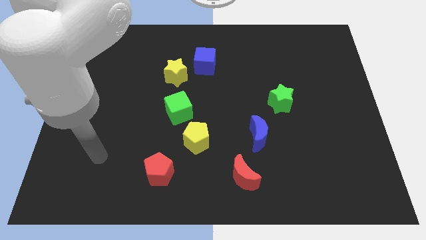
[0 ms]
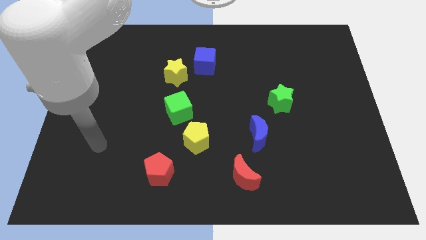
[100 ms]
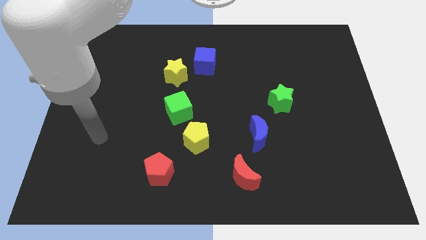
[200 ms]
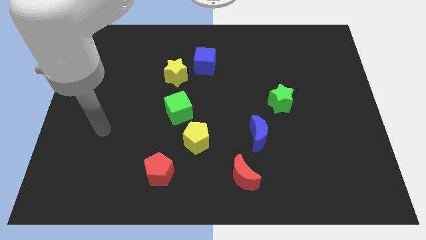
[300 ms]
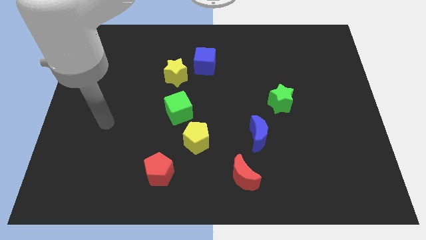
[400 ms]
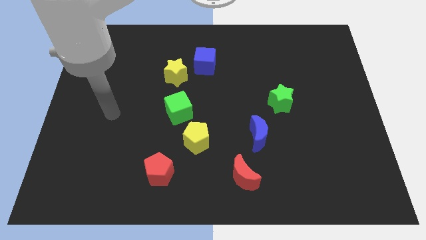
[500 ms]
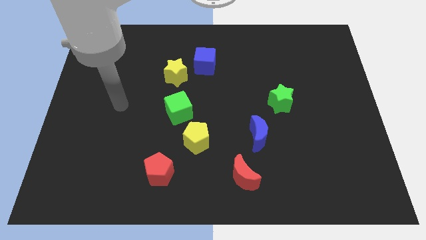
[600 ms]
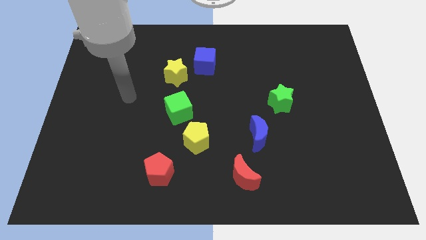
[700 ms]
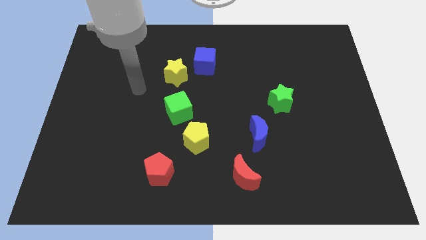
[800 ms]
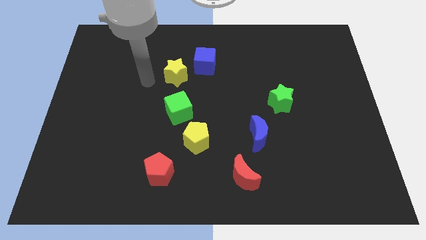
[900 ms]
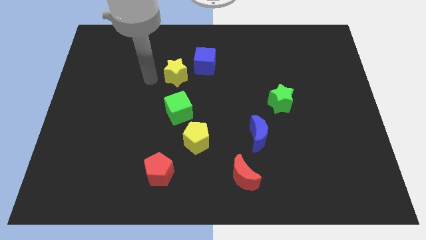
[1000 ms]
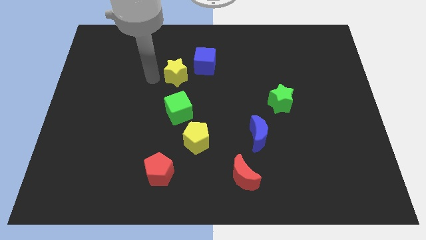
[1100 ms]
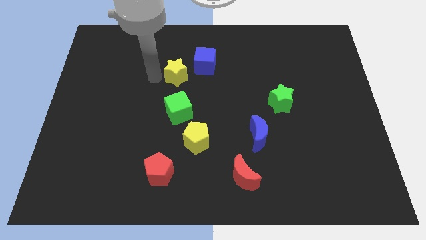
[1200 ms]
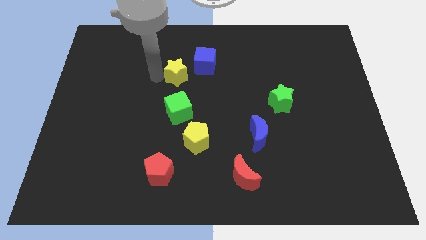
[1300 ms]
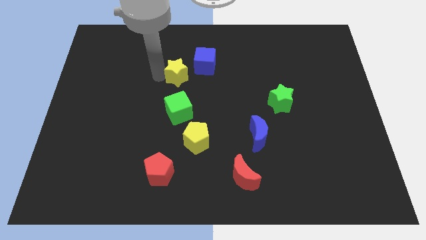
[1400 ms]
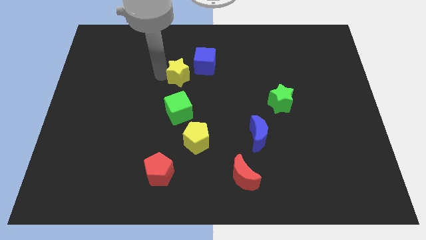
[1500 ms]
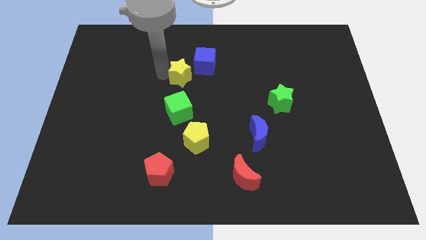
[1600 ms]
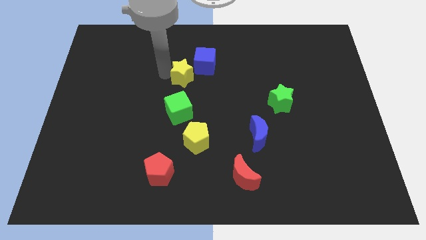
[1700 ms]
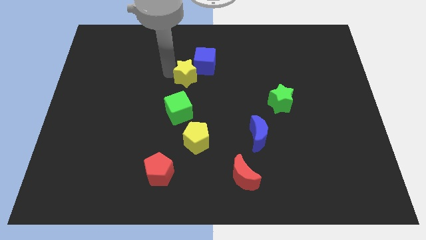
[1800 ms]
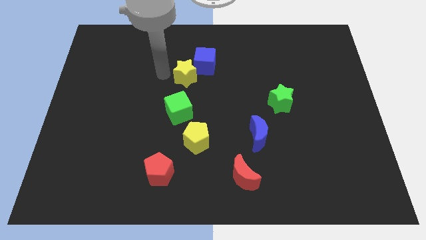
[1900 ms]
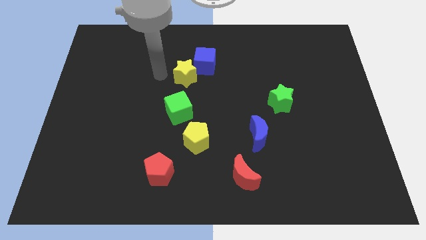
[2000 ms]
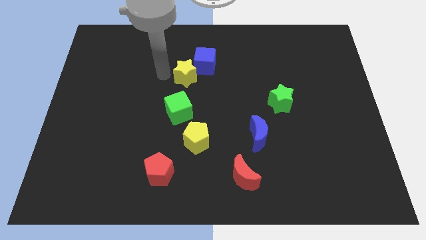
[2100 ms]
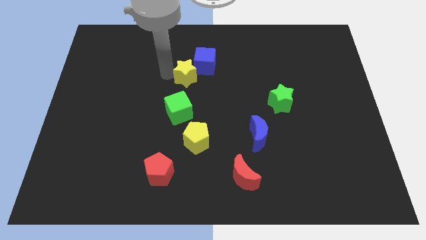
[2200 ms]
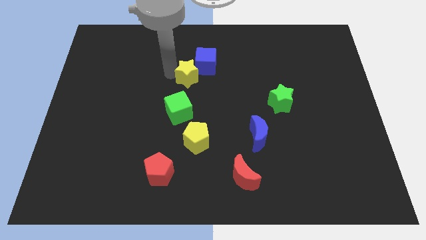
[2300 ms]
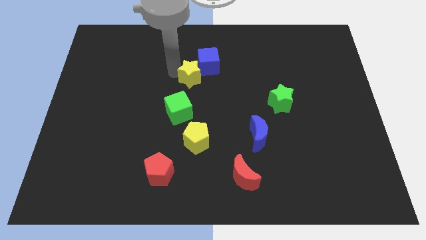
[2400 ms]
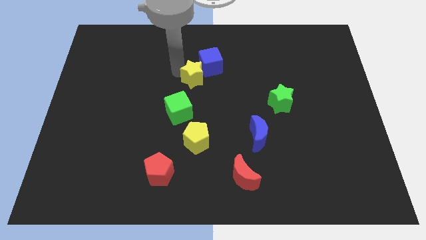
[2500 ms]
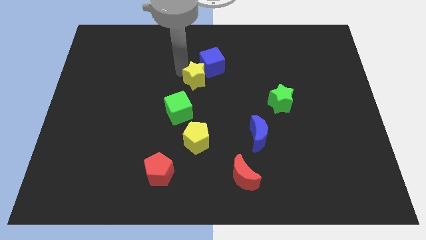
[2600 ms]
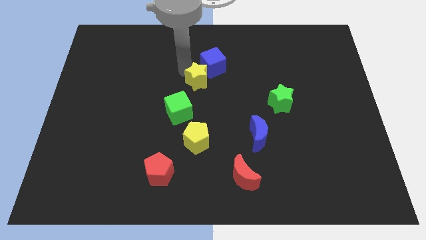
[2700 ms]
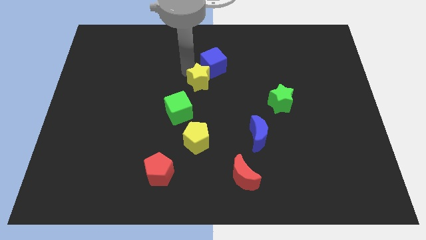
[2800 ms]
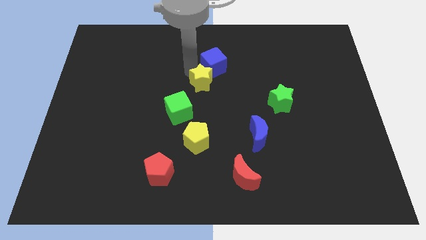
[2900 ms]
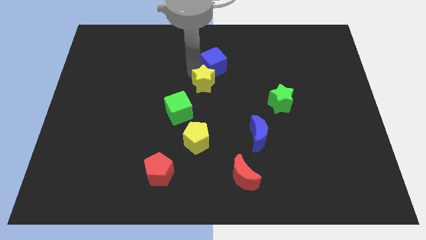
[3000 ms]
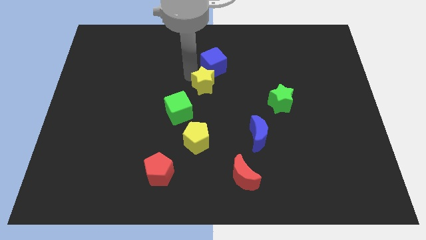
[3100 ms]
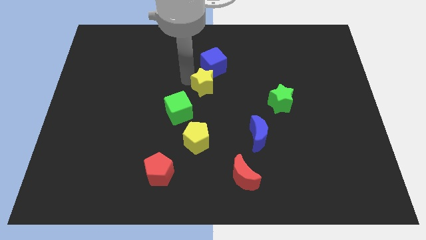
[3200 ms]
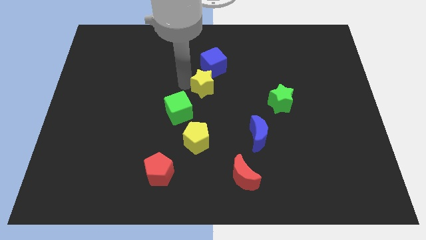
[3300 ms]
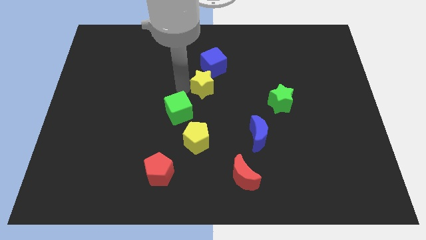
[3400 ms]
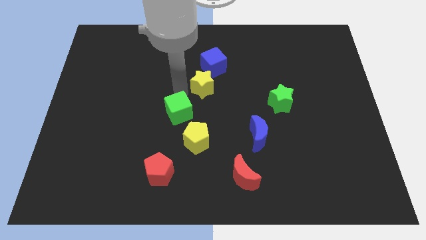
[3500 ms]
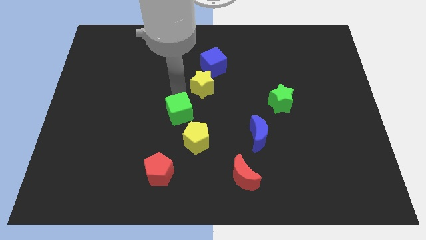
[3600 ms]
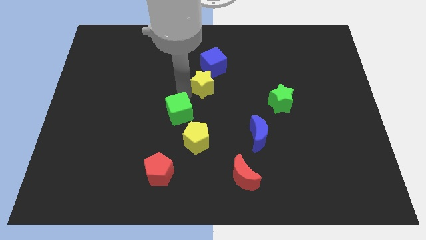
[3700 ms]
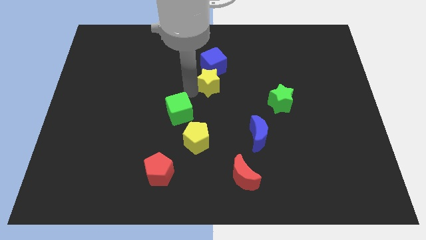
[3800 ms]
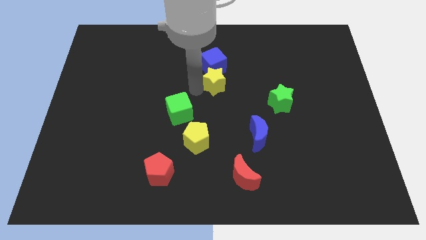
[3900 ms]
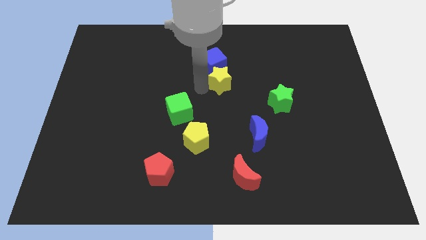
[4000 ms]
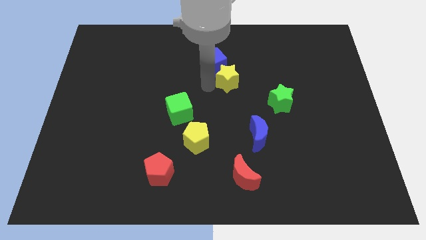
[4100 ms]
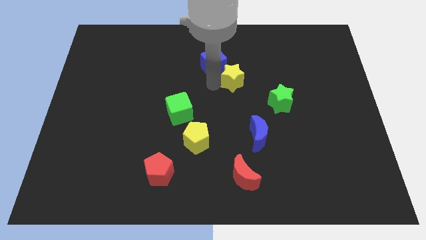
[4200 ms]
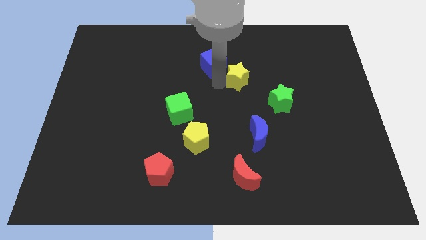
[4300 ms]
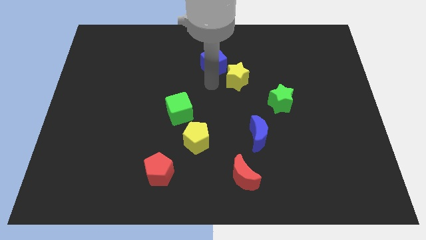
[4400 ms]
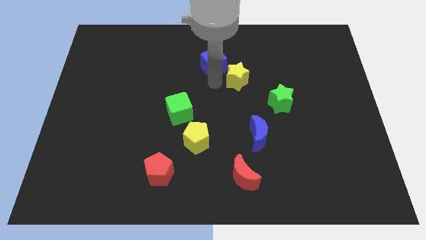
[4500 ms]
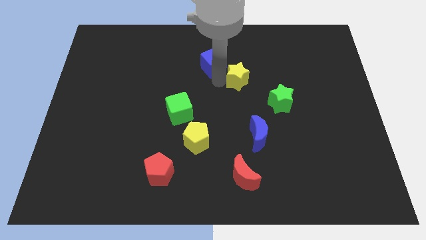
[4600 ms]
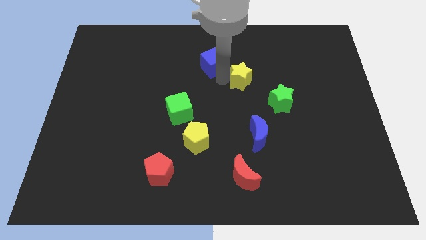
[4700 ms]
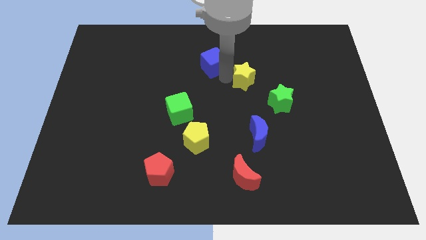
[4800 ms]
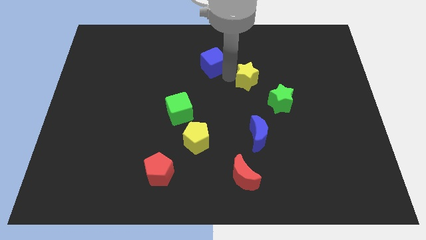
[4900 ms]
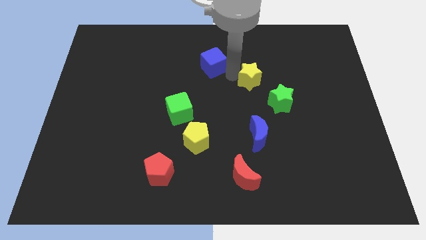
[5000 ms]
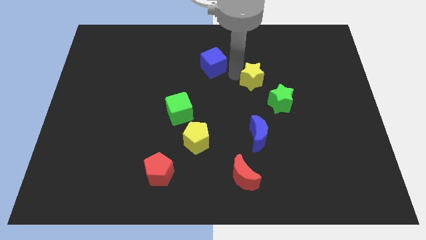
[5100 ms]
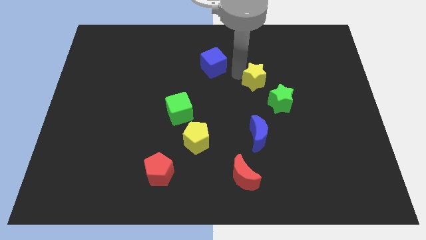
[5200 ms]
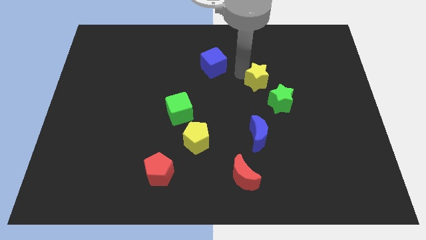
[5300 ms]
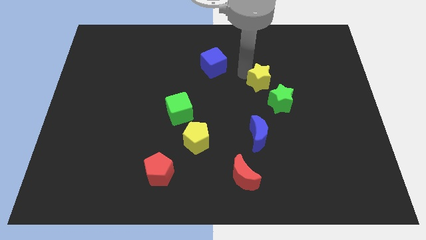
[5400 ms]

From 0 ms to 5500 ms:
put the yellow star to the top side of the green star

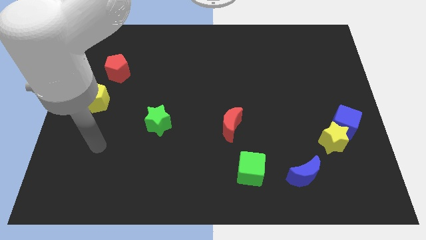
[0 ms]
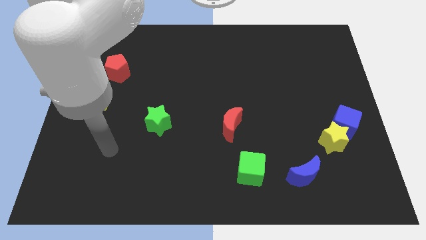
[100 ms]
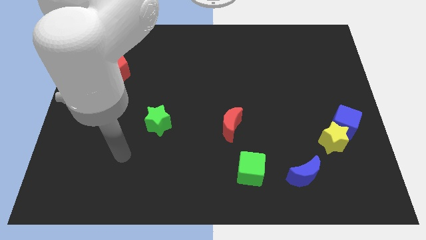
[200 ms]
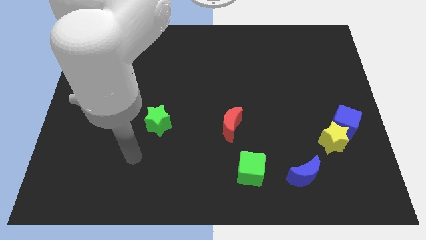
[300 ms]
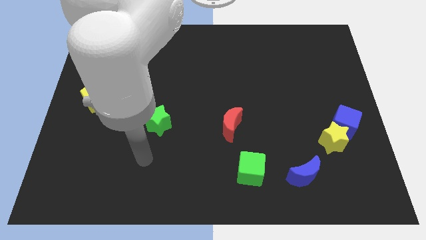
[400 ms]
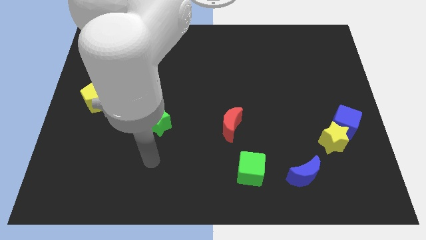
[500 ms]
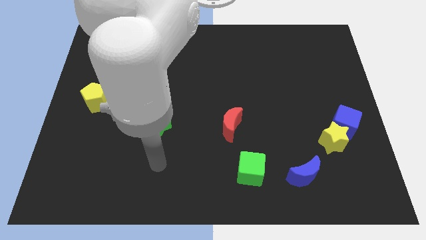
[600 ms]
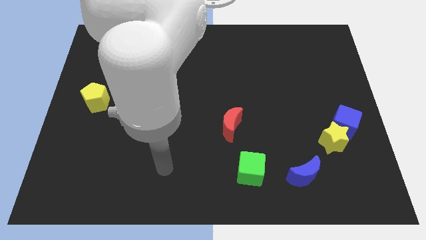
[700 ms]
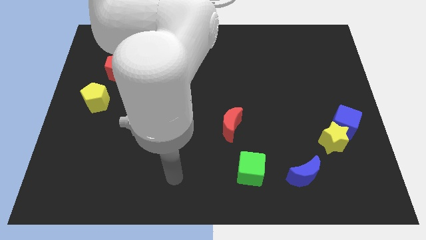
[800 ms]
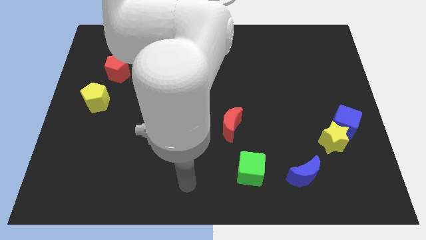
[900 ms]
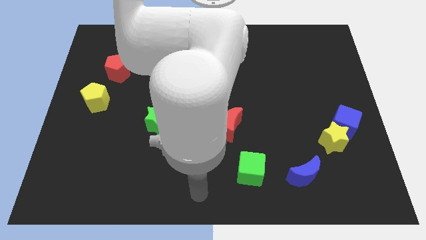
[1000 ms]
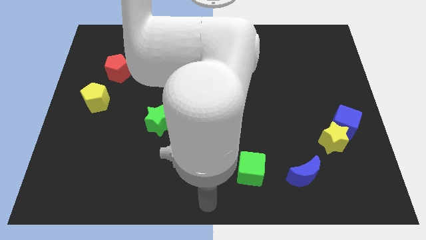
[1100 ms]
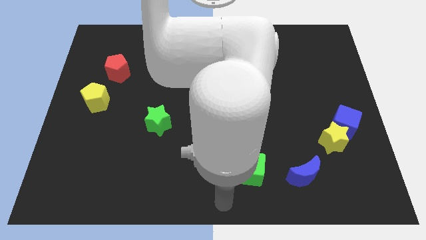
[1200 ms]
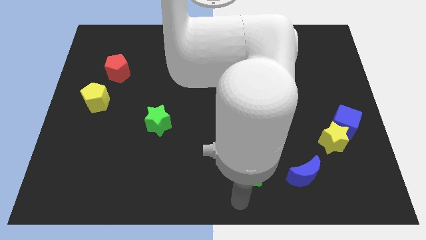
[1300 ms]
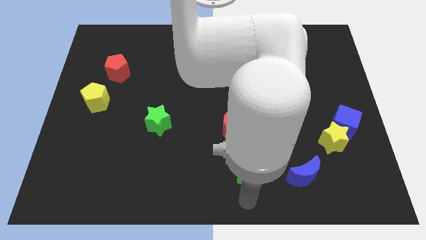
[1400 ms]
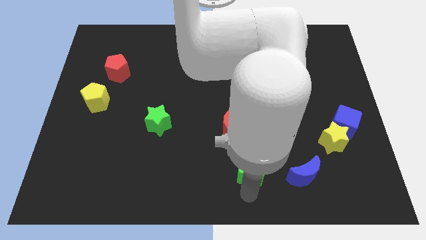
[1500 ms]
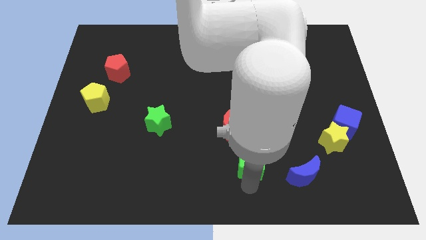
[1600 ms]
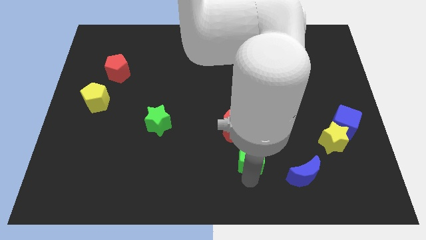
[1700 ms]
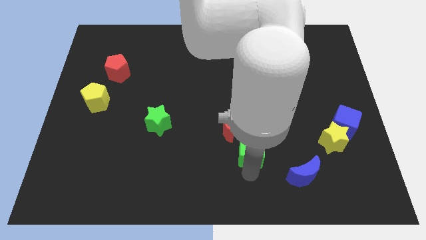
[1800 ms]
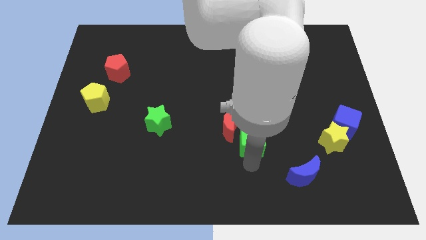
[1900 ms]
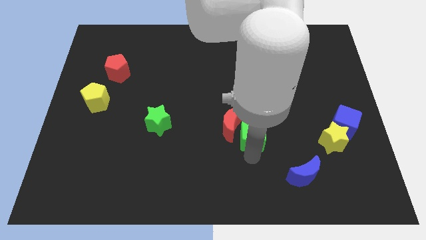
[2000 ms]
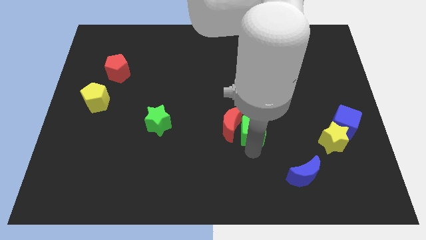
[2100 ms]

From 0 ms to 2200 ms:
put the green cube diagonally up and to the right of the red moon
